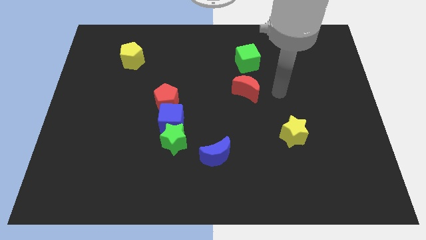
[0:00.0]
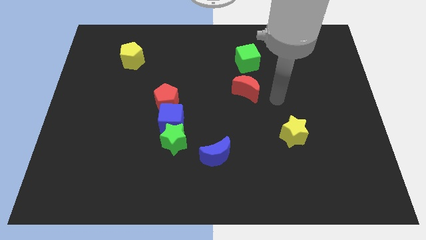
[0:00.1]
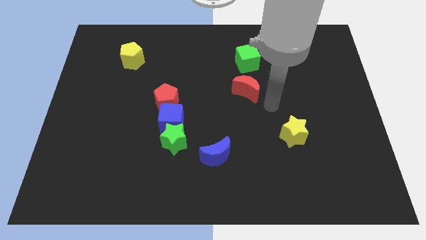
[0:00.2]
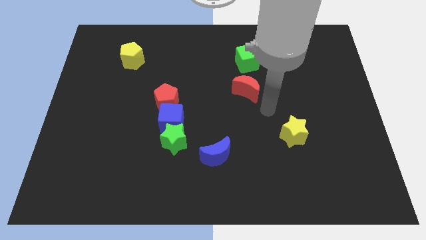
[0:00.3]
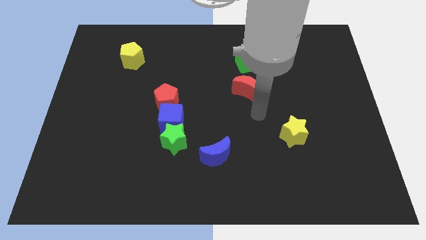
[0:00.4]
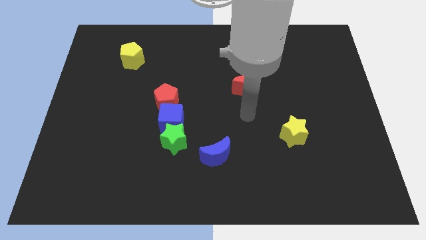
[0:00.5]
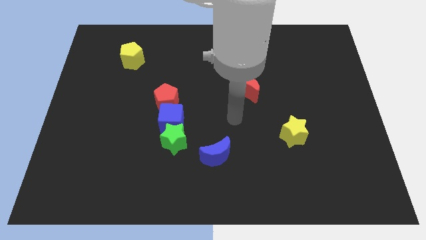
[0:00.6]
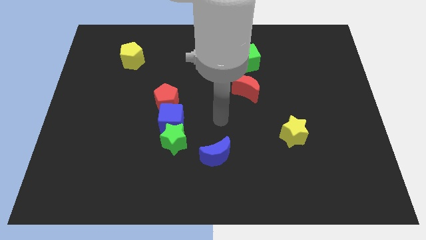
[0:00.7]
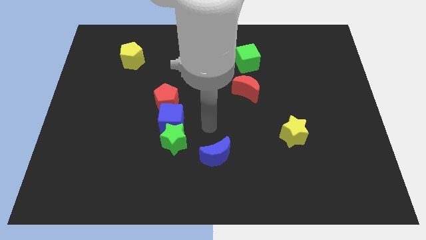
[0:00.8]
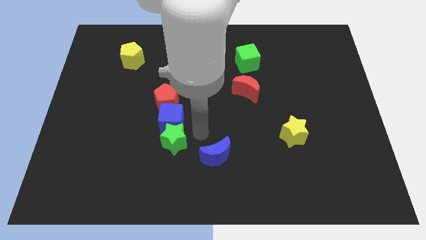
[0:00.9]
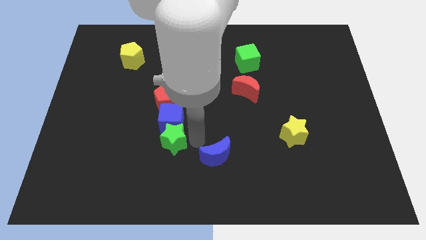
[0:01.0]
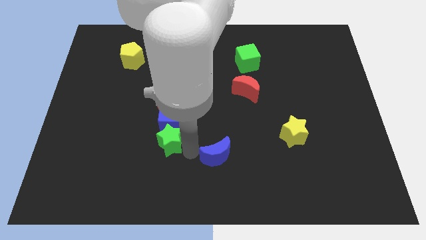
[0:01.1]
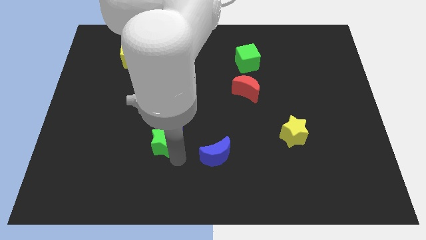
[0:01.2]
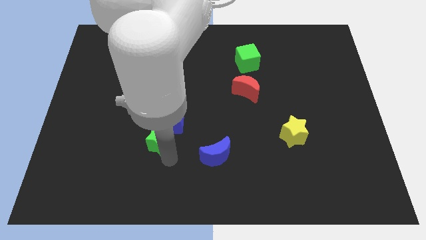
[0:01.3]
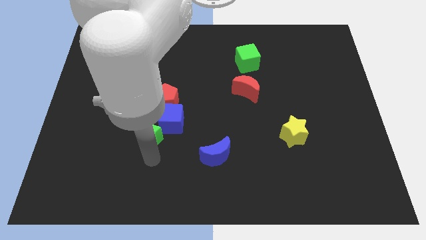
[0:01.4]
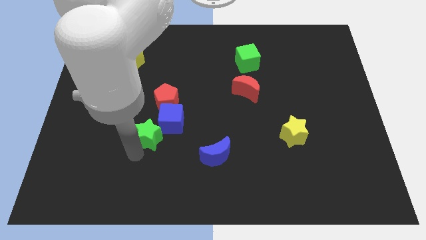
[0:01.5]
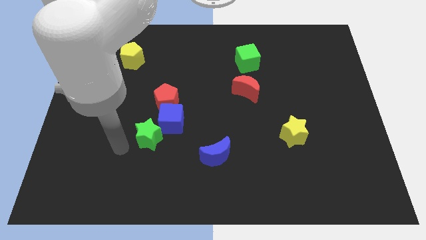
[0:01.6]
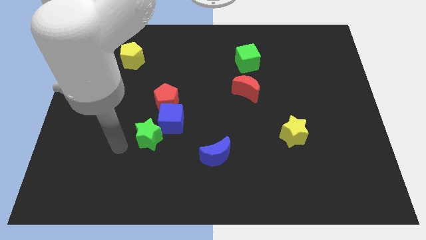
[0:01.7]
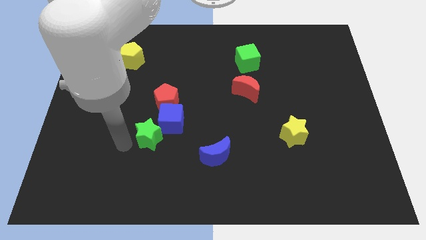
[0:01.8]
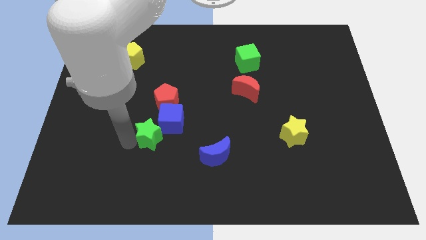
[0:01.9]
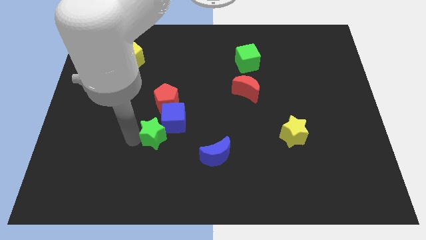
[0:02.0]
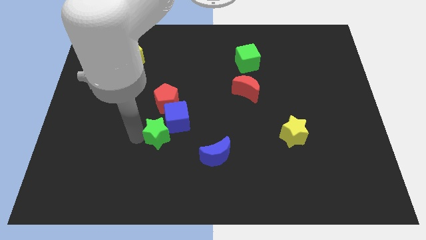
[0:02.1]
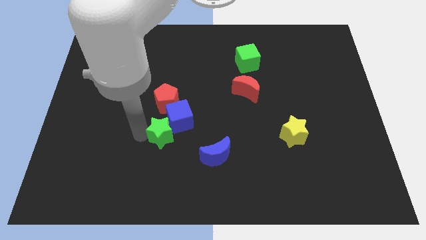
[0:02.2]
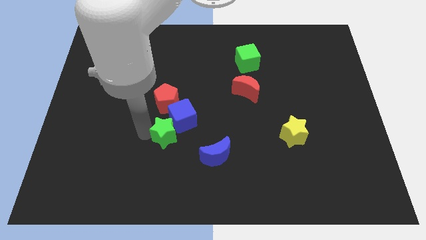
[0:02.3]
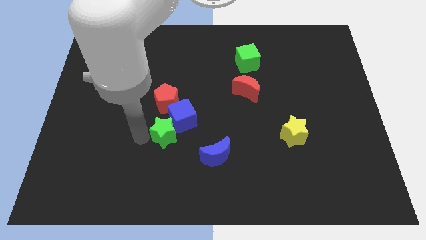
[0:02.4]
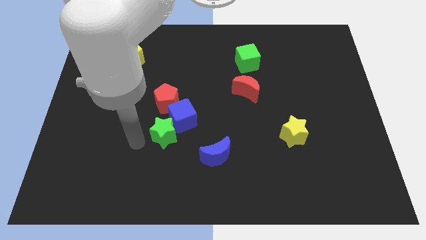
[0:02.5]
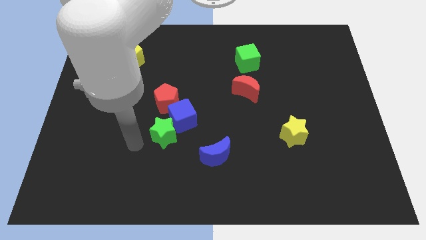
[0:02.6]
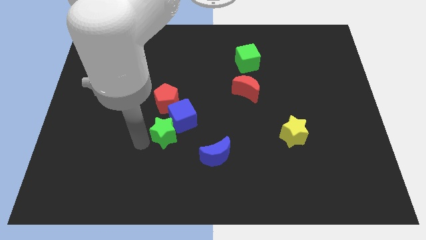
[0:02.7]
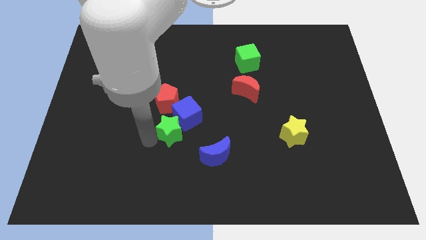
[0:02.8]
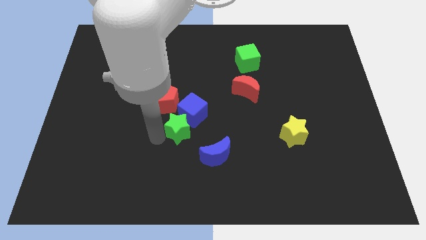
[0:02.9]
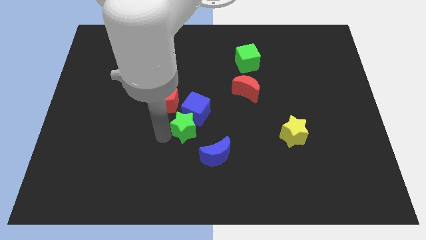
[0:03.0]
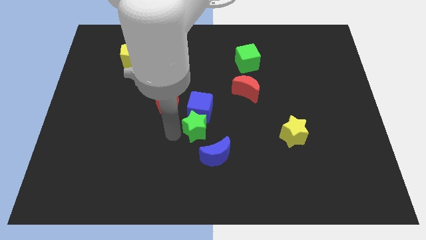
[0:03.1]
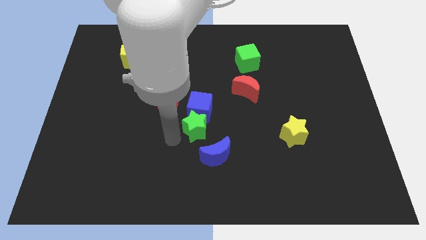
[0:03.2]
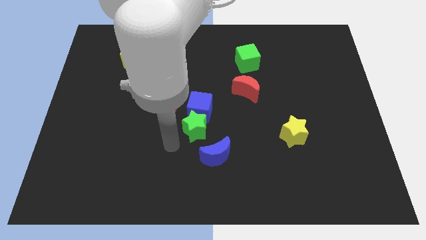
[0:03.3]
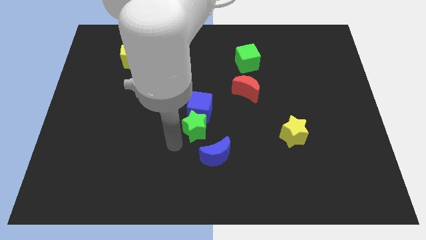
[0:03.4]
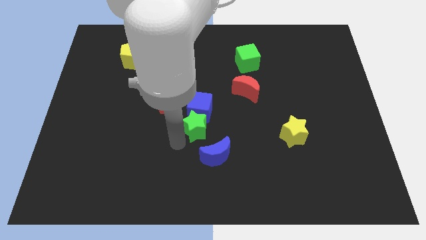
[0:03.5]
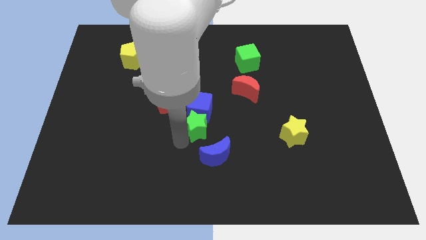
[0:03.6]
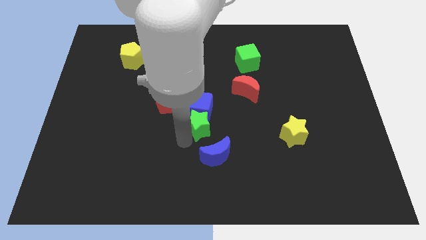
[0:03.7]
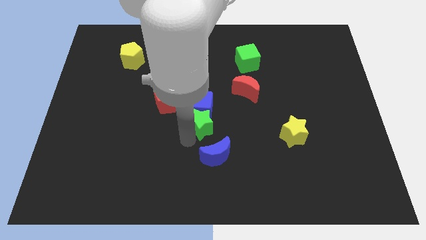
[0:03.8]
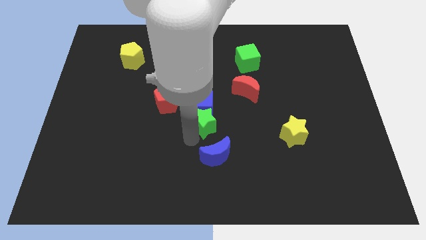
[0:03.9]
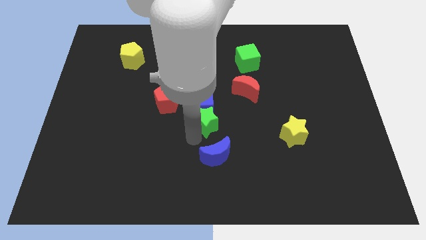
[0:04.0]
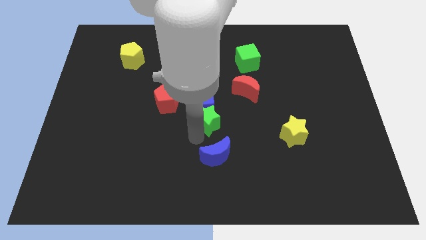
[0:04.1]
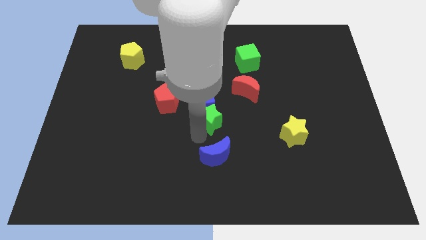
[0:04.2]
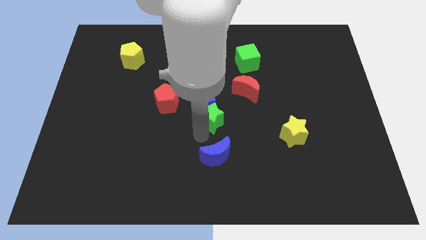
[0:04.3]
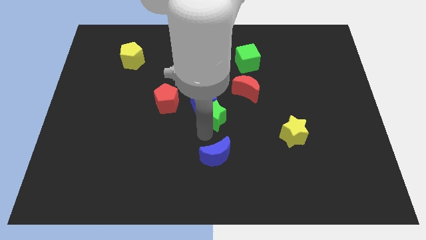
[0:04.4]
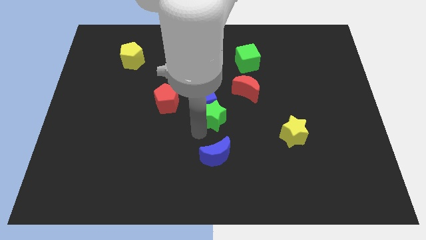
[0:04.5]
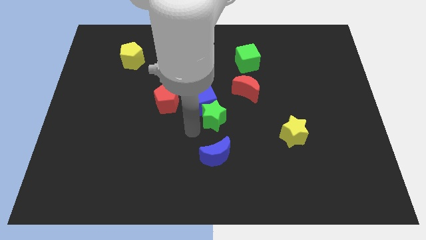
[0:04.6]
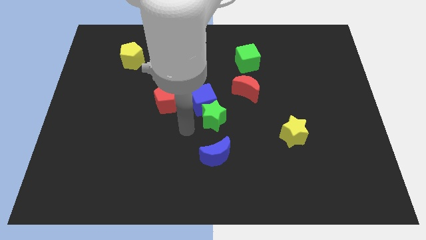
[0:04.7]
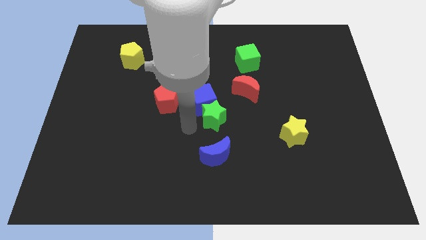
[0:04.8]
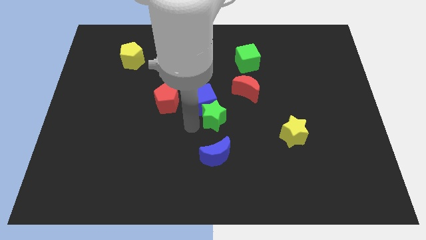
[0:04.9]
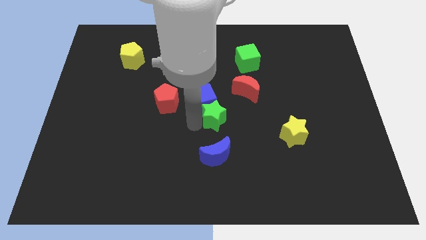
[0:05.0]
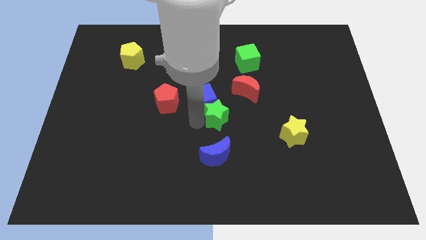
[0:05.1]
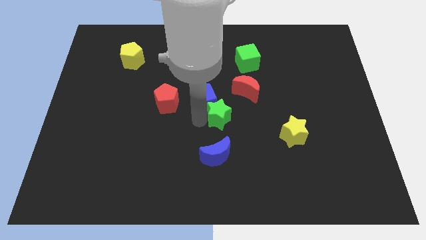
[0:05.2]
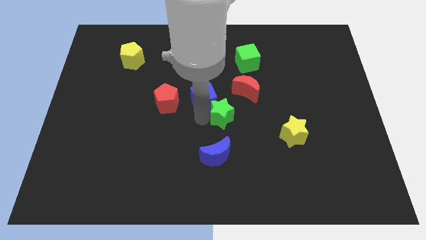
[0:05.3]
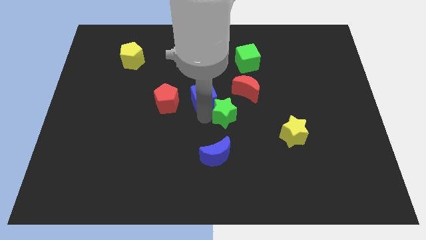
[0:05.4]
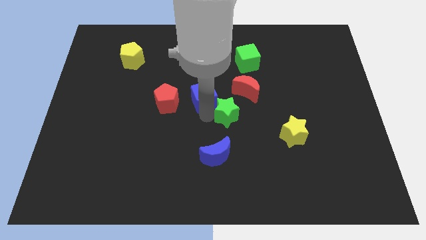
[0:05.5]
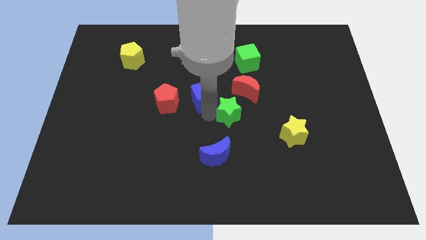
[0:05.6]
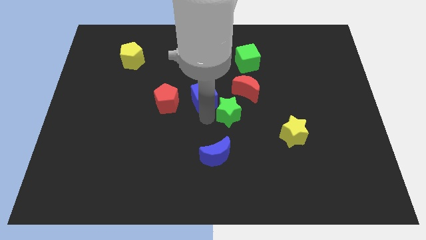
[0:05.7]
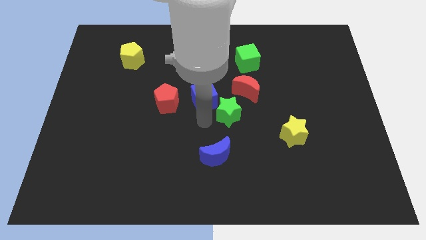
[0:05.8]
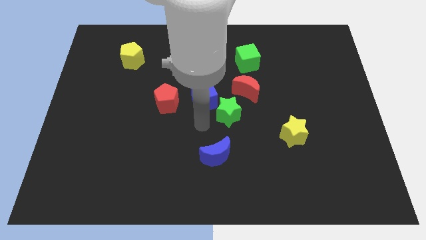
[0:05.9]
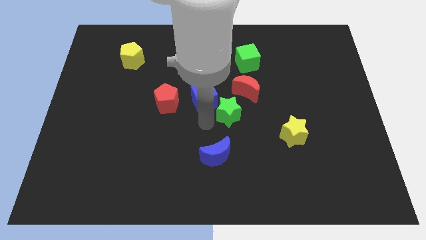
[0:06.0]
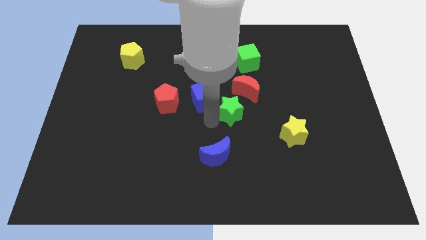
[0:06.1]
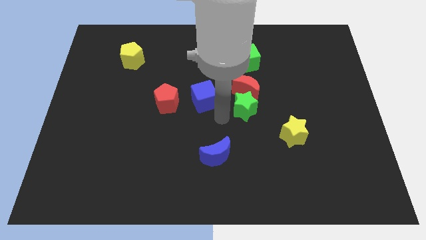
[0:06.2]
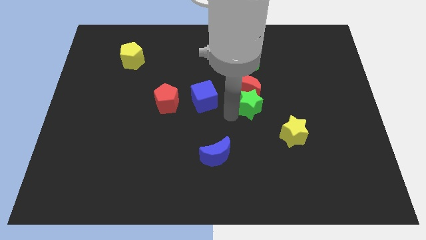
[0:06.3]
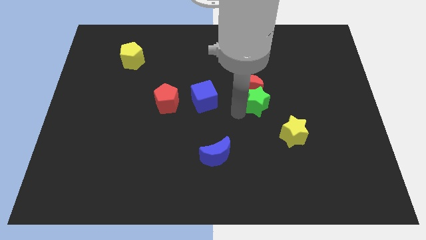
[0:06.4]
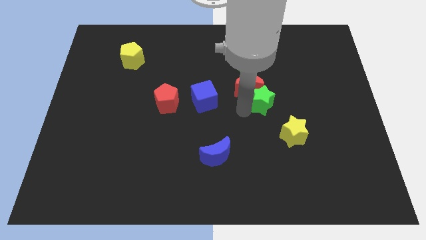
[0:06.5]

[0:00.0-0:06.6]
slide the green star up and right

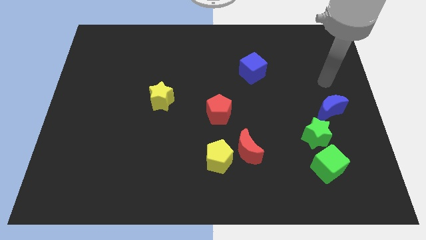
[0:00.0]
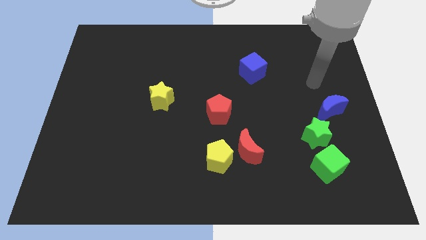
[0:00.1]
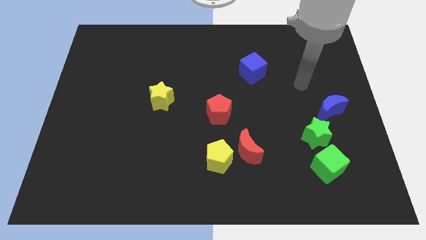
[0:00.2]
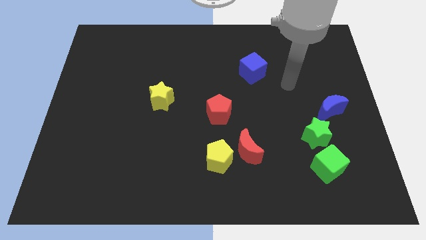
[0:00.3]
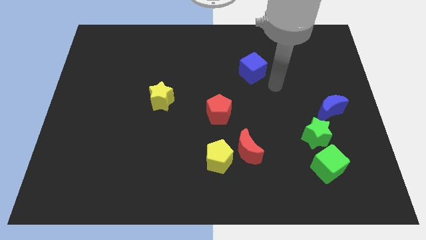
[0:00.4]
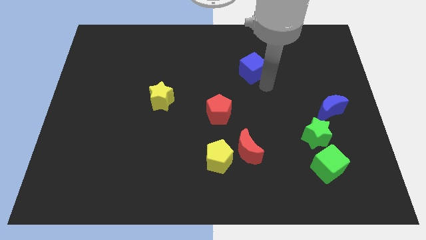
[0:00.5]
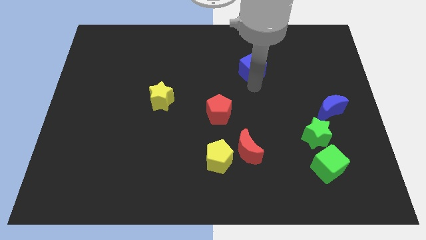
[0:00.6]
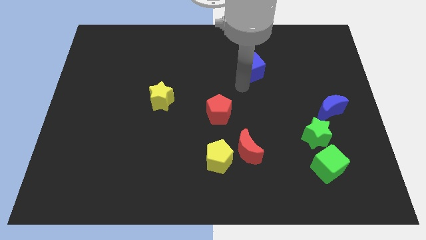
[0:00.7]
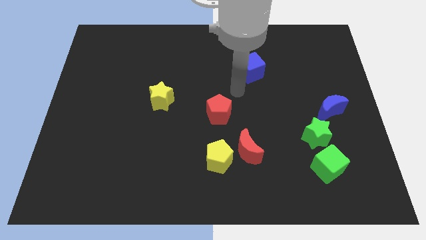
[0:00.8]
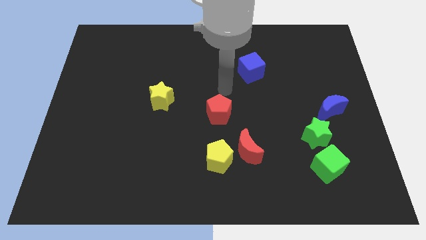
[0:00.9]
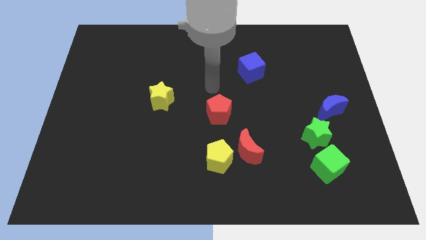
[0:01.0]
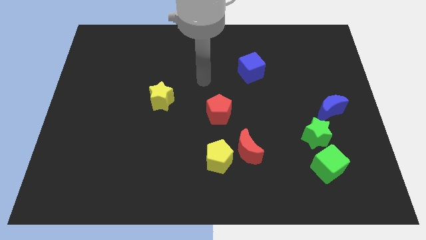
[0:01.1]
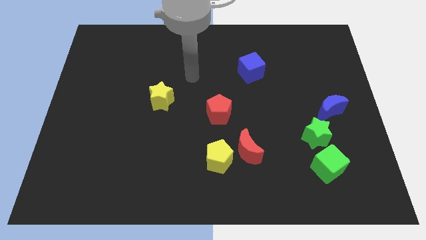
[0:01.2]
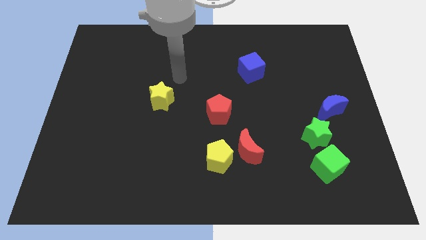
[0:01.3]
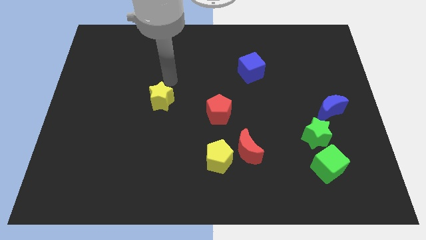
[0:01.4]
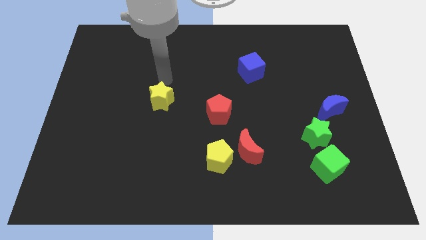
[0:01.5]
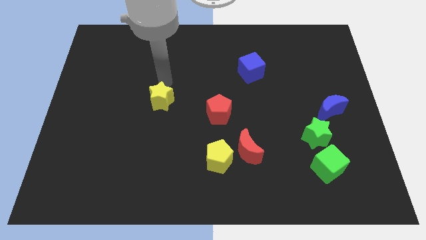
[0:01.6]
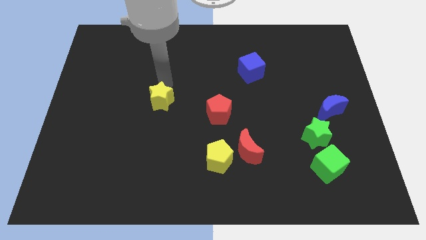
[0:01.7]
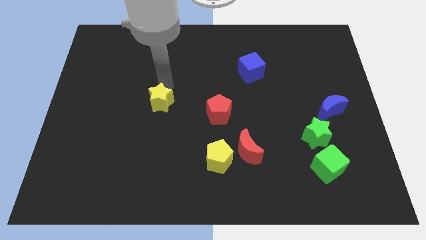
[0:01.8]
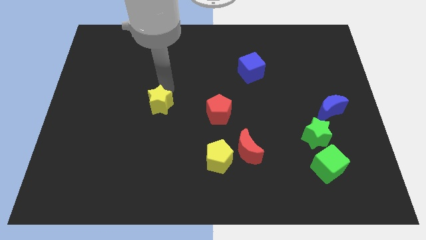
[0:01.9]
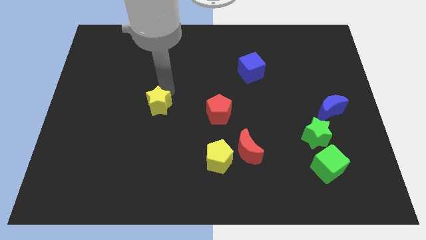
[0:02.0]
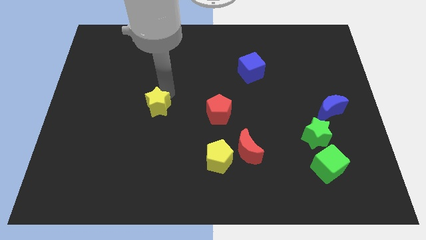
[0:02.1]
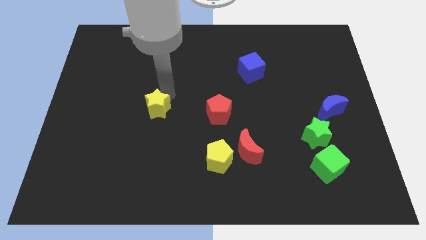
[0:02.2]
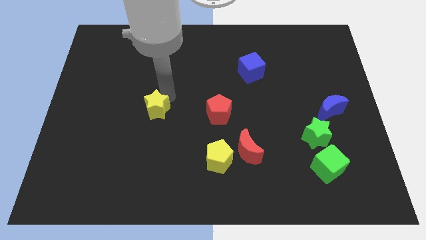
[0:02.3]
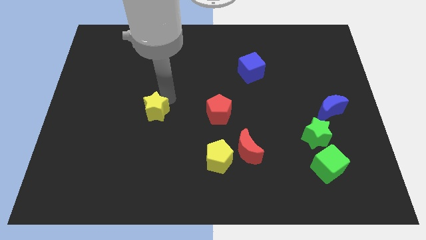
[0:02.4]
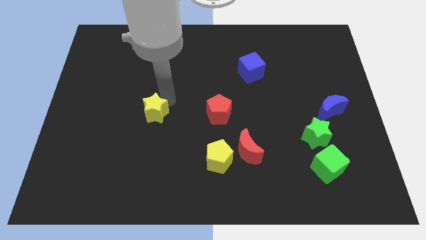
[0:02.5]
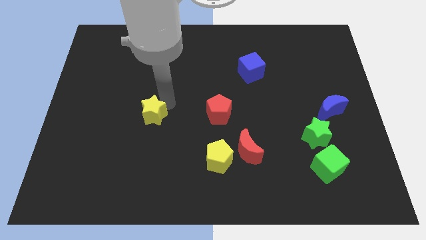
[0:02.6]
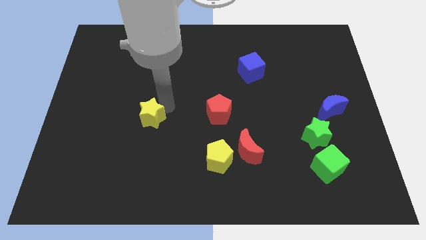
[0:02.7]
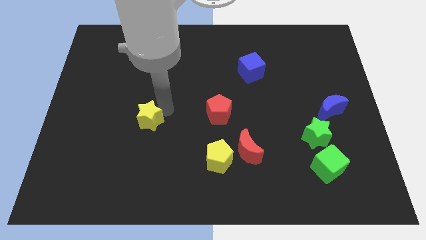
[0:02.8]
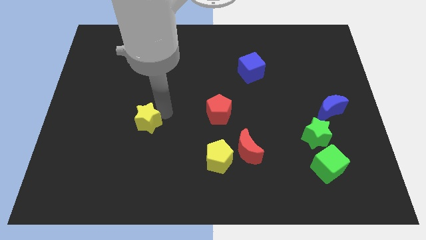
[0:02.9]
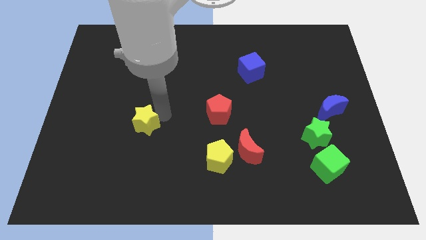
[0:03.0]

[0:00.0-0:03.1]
push the yellow star slightly down
